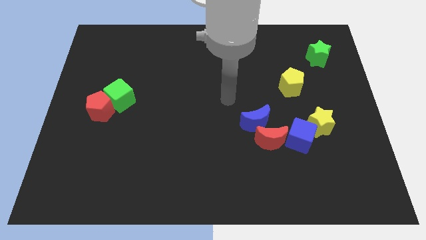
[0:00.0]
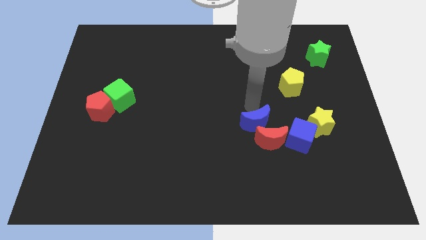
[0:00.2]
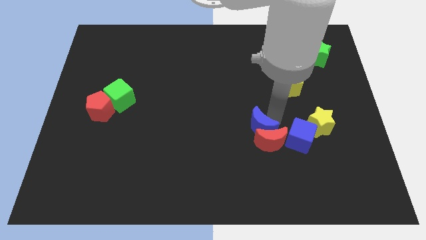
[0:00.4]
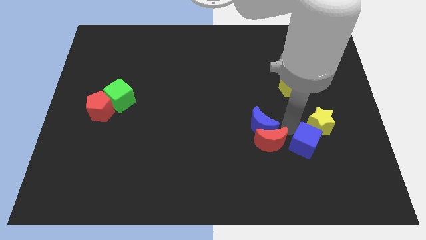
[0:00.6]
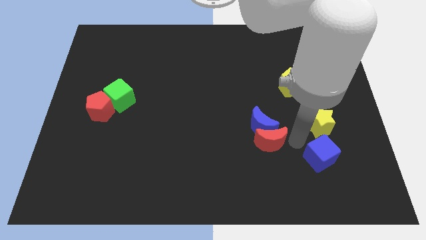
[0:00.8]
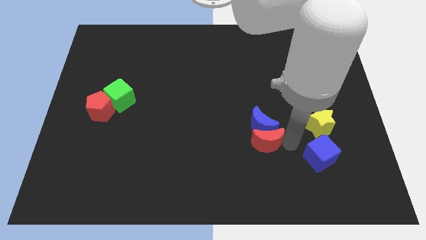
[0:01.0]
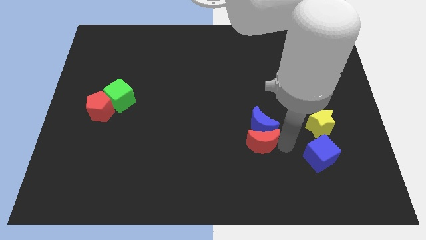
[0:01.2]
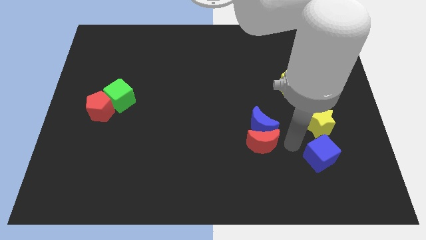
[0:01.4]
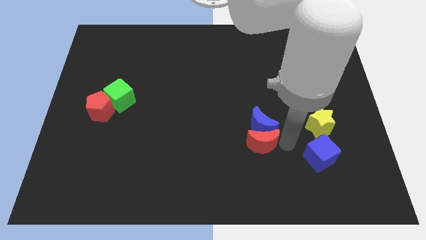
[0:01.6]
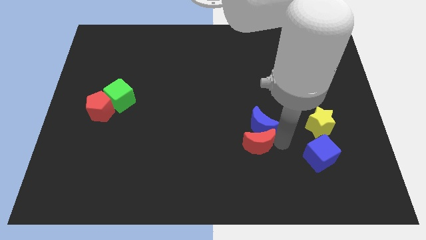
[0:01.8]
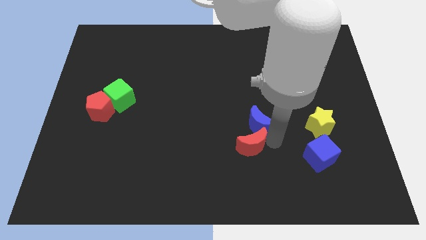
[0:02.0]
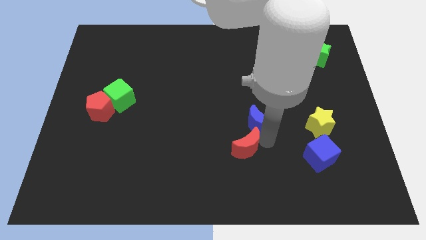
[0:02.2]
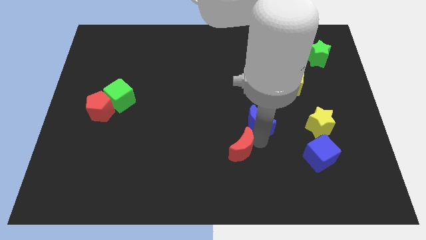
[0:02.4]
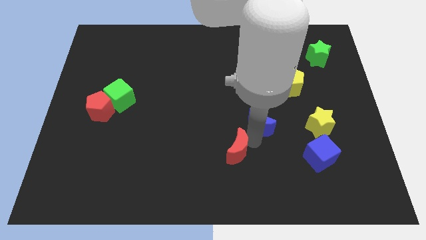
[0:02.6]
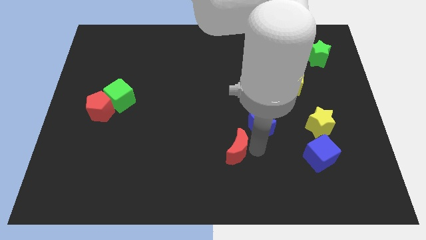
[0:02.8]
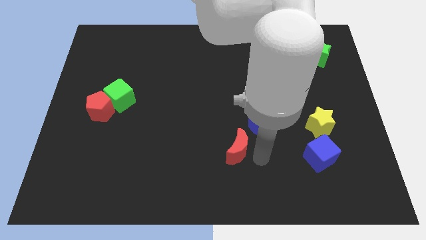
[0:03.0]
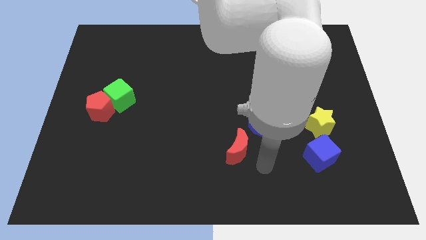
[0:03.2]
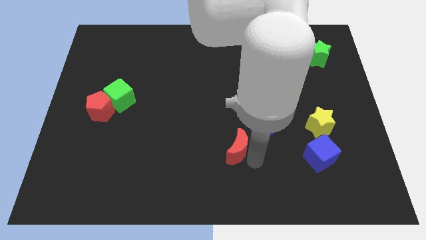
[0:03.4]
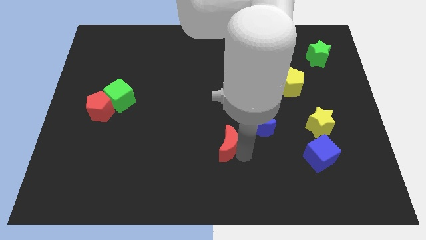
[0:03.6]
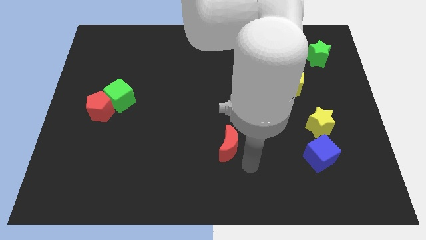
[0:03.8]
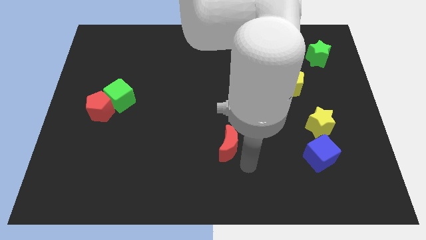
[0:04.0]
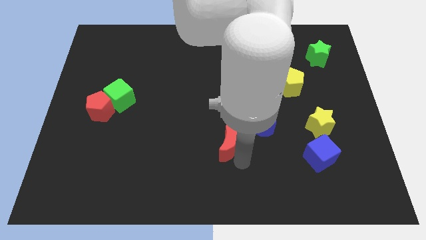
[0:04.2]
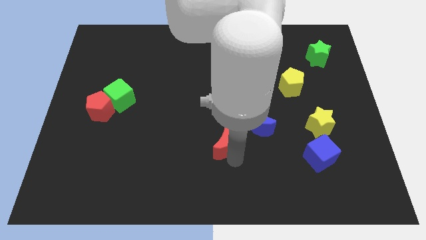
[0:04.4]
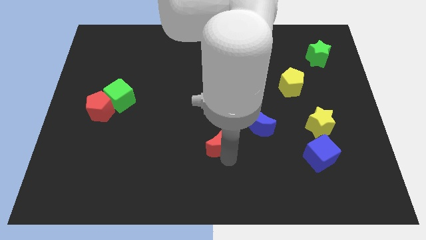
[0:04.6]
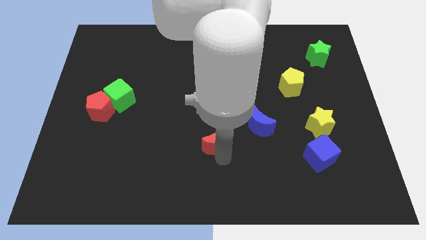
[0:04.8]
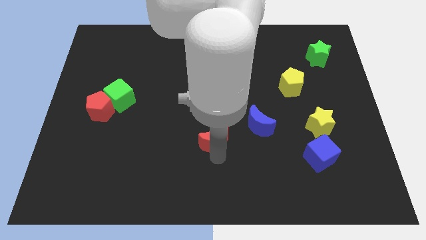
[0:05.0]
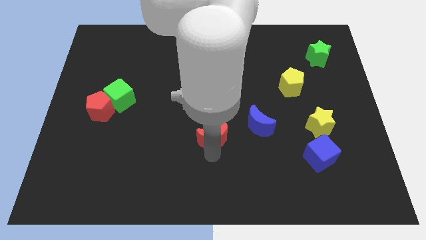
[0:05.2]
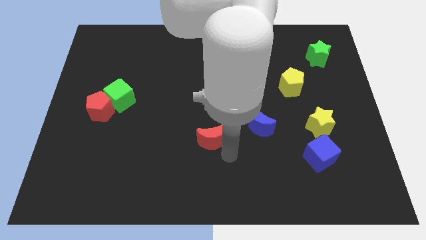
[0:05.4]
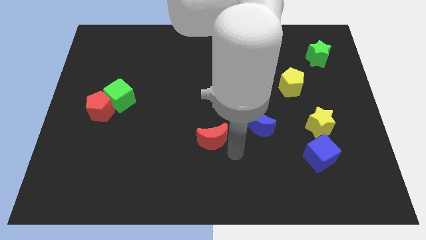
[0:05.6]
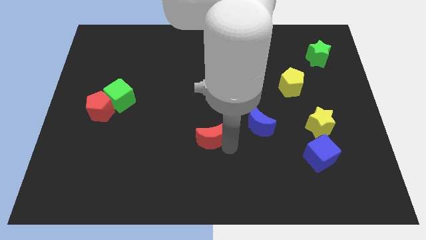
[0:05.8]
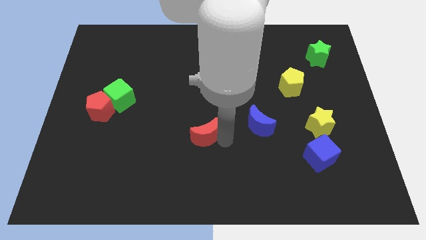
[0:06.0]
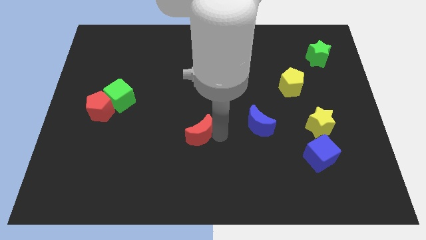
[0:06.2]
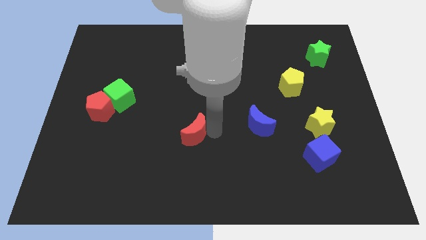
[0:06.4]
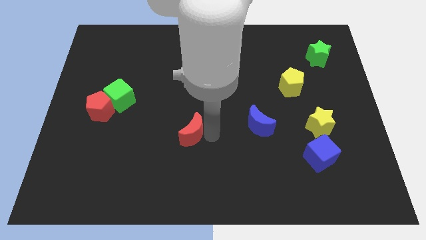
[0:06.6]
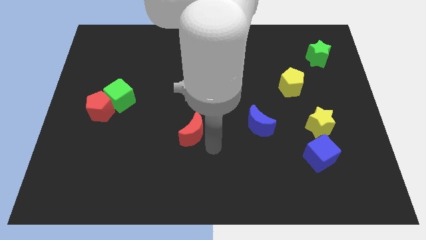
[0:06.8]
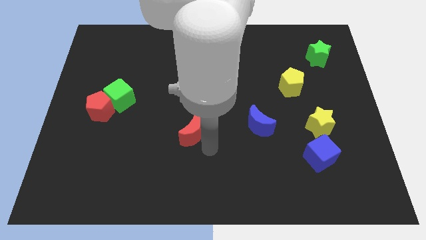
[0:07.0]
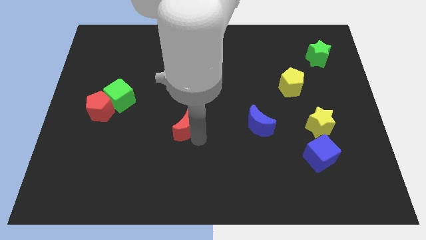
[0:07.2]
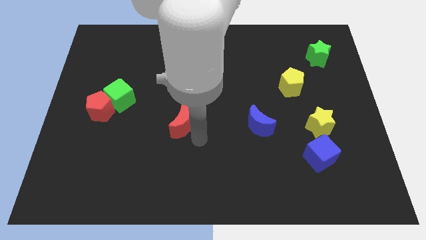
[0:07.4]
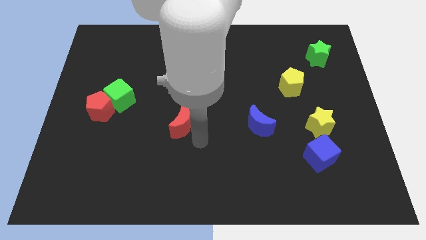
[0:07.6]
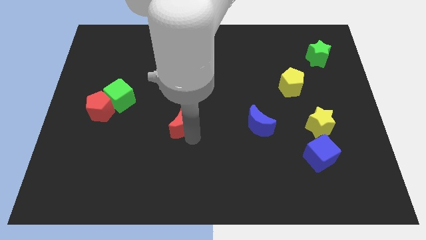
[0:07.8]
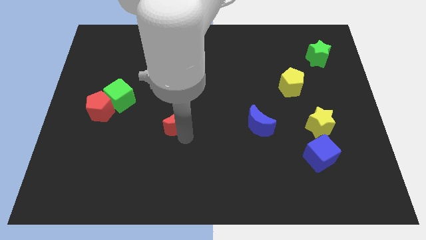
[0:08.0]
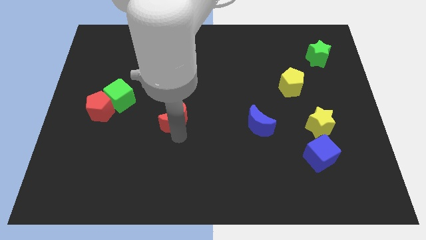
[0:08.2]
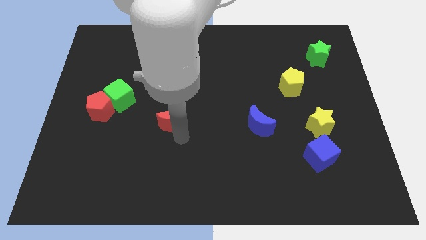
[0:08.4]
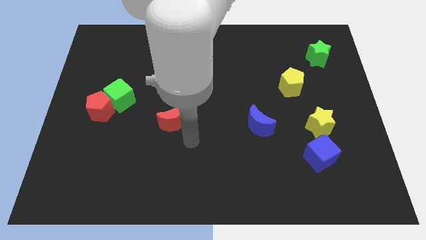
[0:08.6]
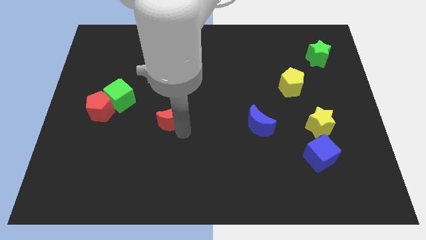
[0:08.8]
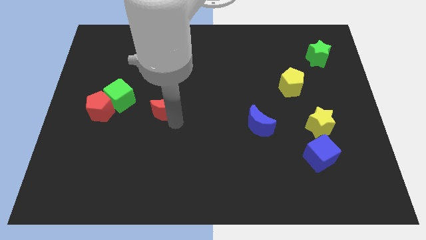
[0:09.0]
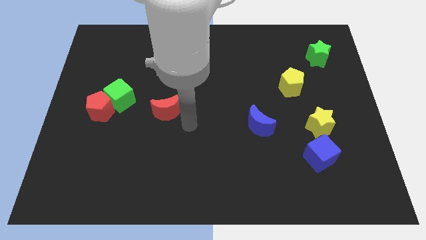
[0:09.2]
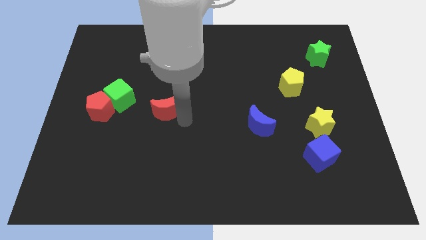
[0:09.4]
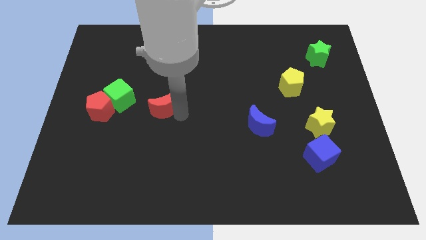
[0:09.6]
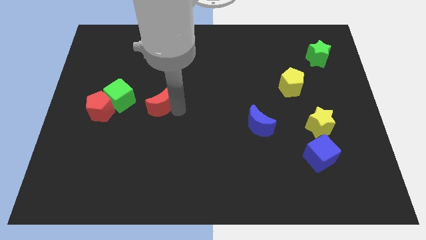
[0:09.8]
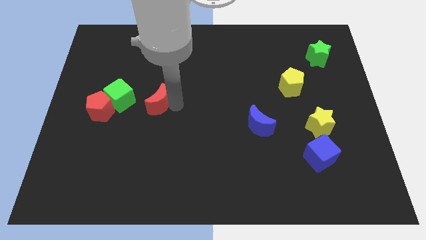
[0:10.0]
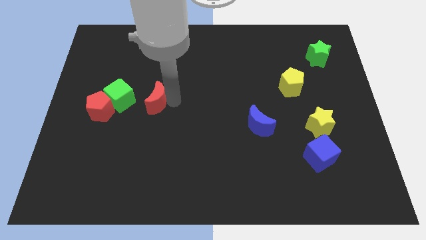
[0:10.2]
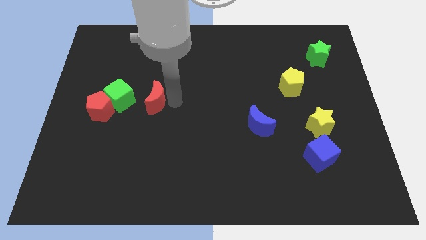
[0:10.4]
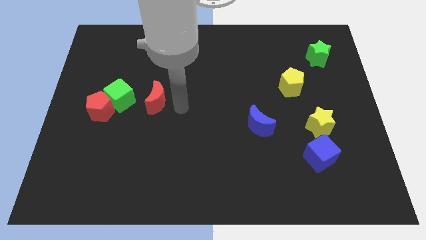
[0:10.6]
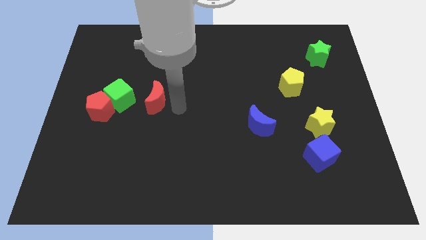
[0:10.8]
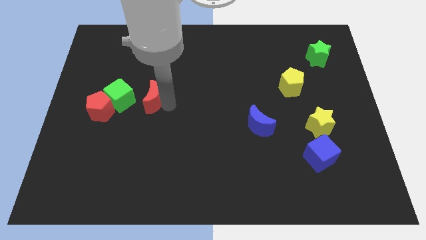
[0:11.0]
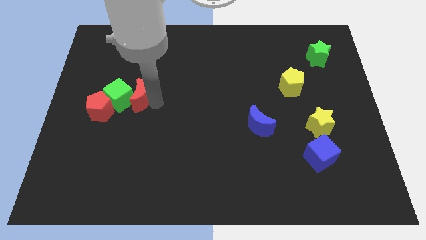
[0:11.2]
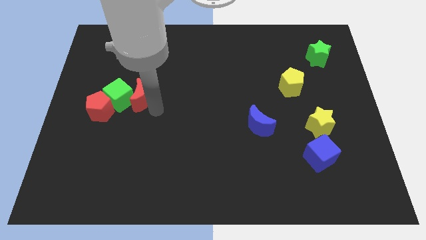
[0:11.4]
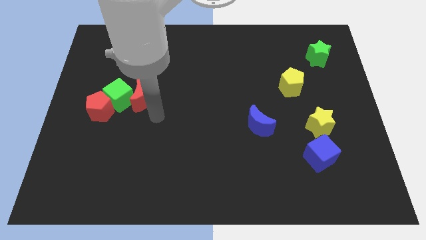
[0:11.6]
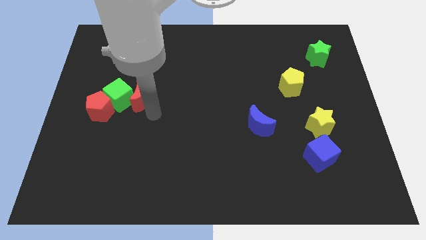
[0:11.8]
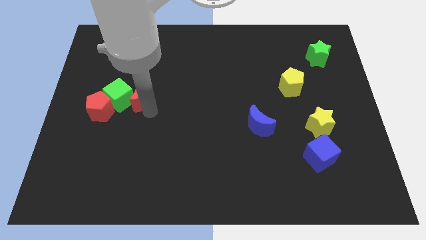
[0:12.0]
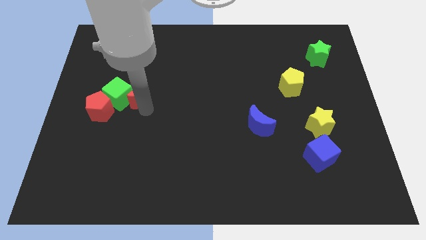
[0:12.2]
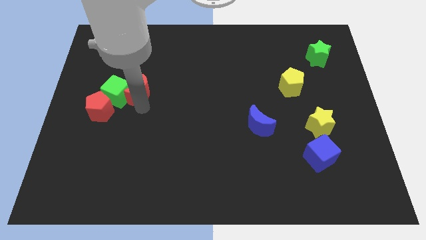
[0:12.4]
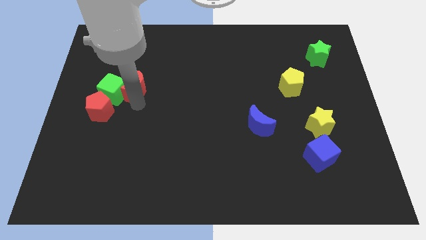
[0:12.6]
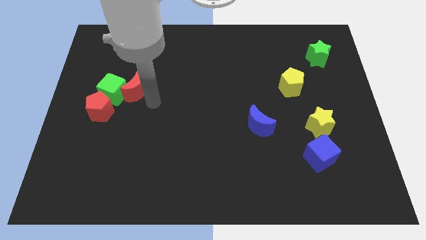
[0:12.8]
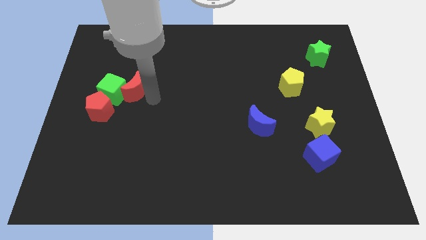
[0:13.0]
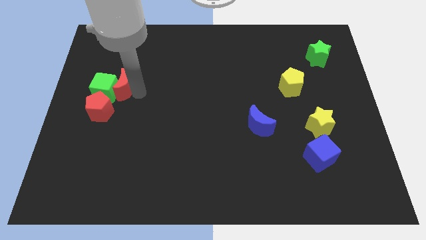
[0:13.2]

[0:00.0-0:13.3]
push the red moon to the top side of the red pentagon
